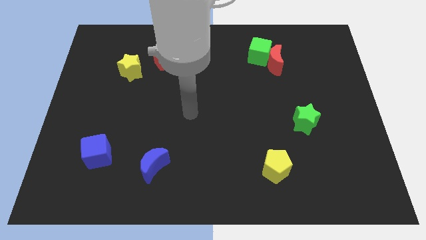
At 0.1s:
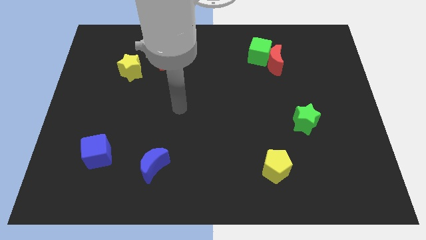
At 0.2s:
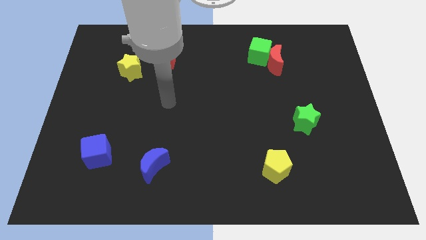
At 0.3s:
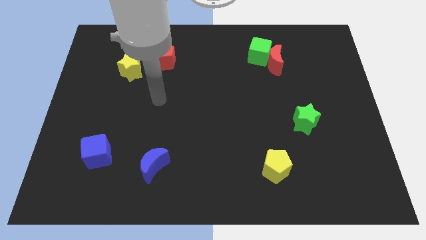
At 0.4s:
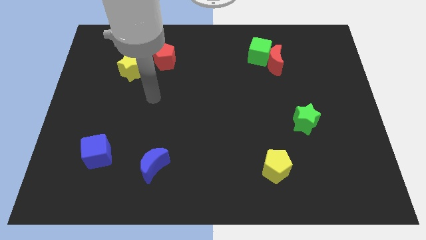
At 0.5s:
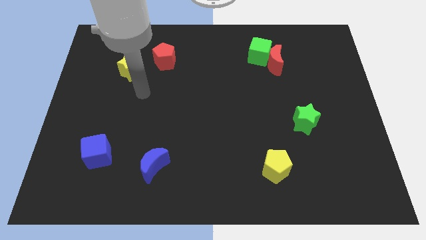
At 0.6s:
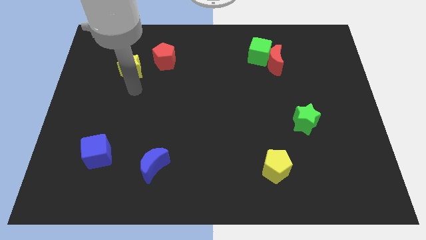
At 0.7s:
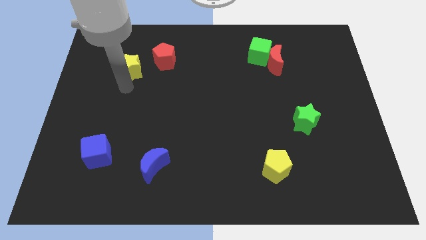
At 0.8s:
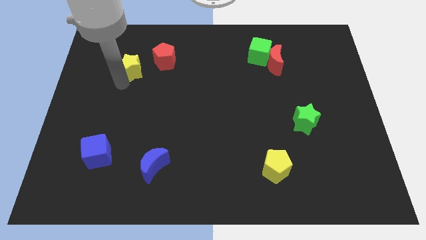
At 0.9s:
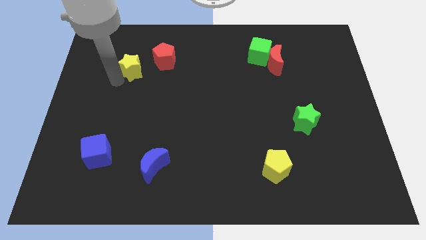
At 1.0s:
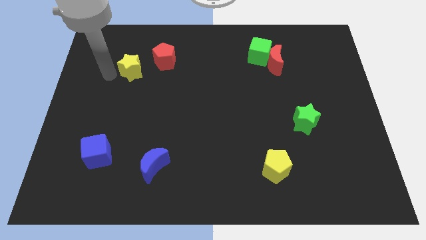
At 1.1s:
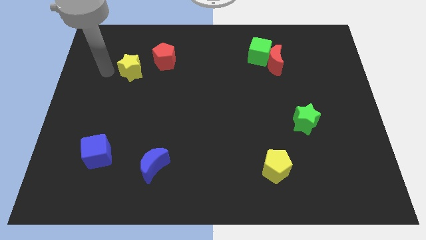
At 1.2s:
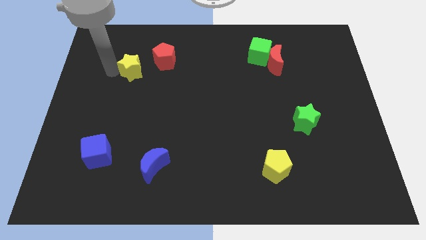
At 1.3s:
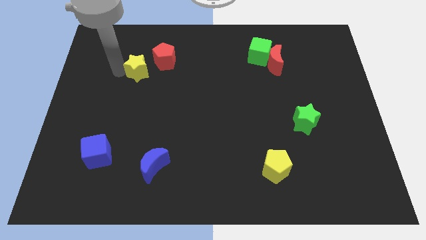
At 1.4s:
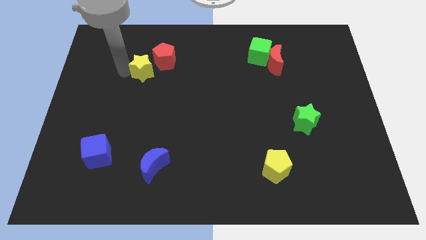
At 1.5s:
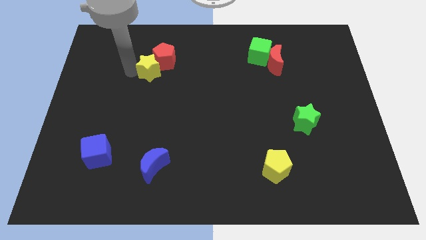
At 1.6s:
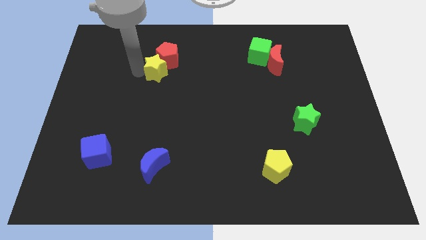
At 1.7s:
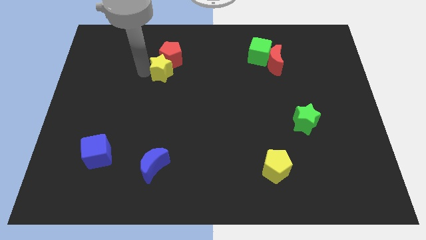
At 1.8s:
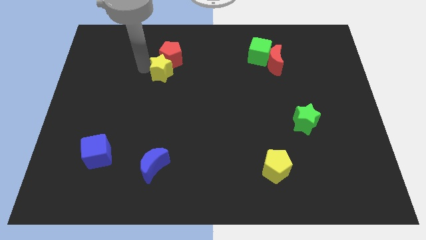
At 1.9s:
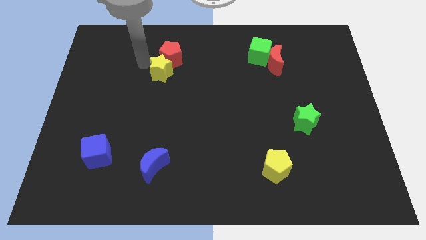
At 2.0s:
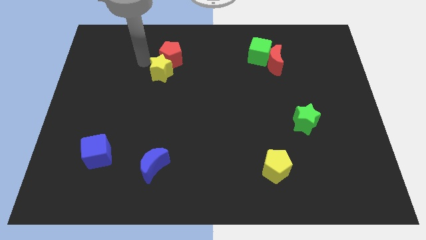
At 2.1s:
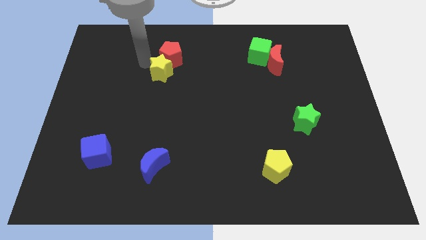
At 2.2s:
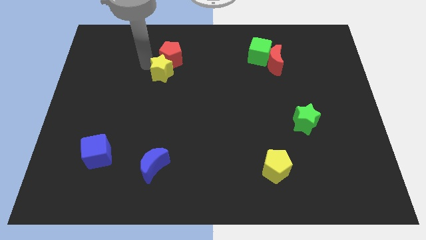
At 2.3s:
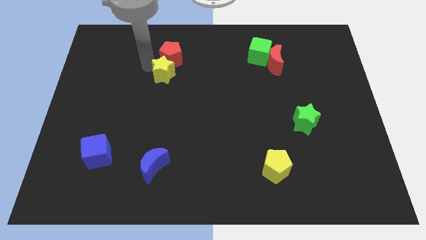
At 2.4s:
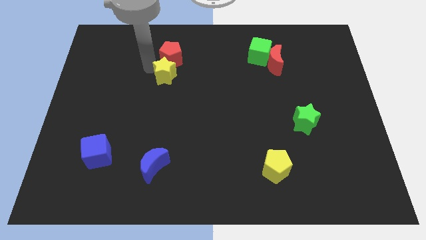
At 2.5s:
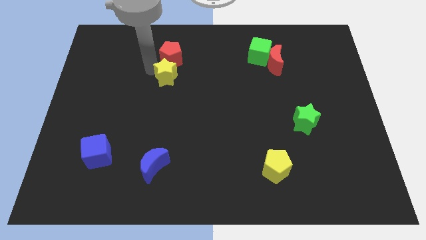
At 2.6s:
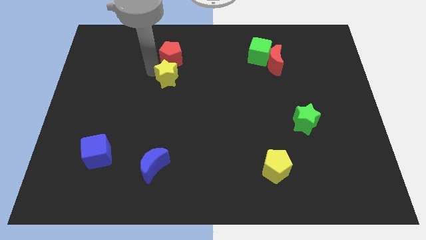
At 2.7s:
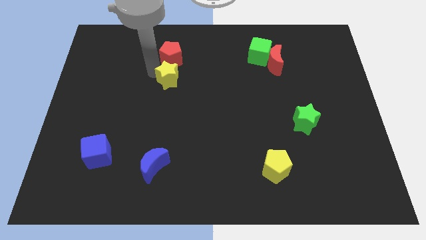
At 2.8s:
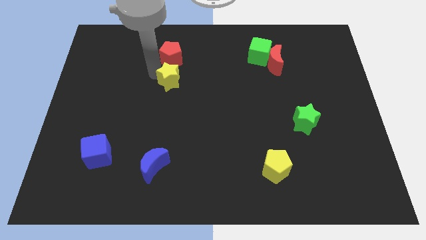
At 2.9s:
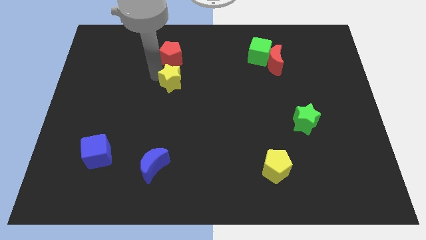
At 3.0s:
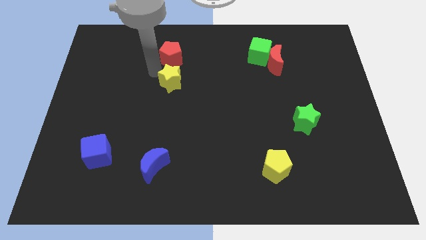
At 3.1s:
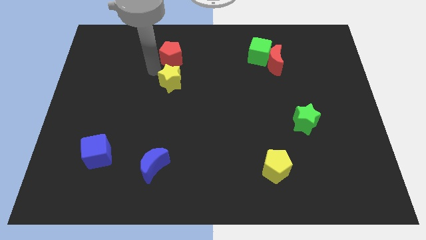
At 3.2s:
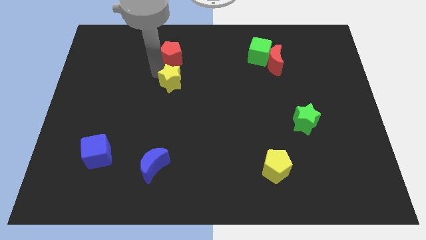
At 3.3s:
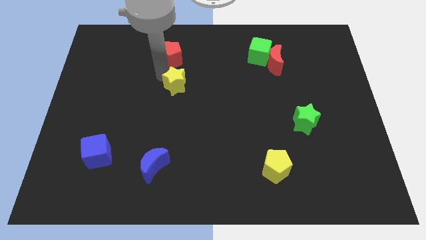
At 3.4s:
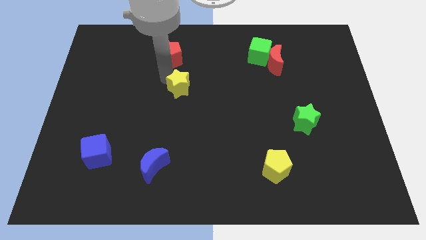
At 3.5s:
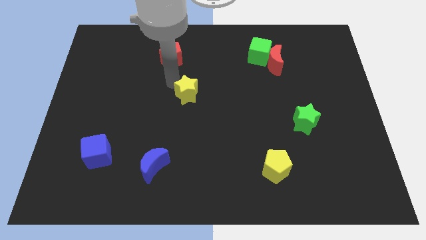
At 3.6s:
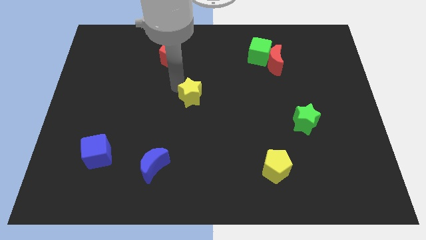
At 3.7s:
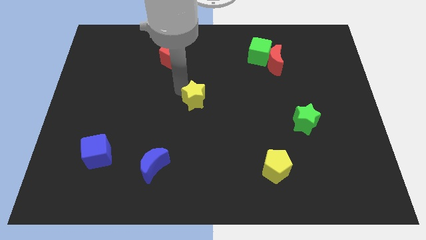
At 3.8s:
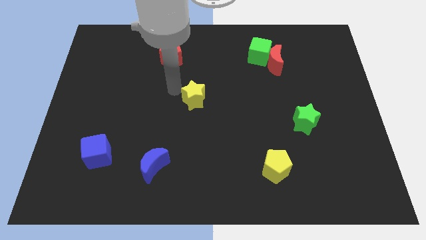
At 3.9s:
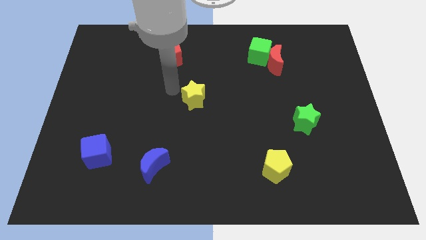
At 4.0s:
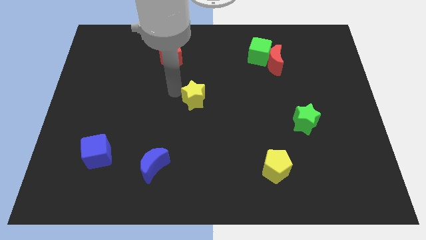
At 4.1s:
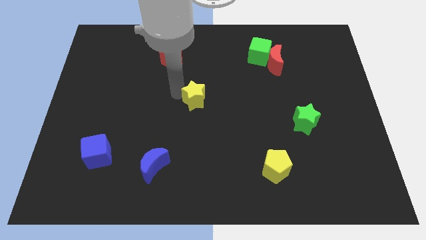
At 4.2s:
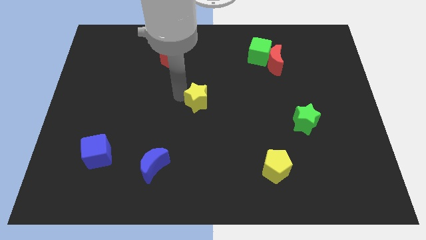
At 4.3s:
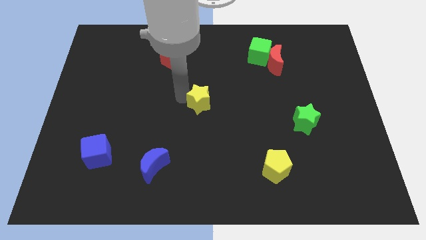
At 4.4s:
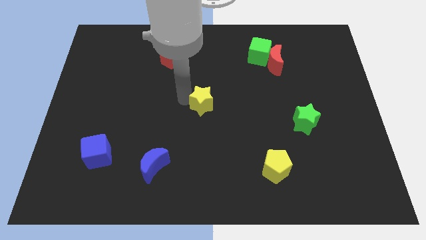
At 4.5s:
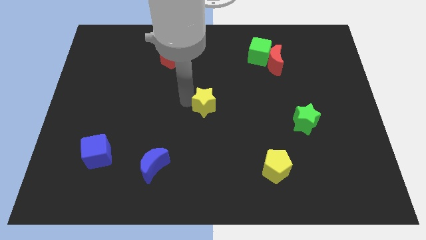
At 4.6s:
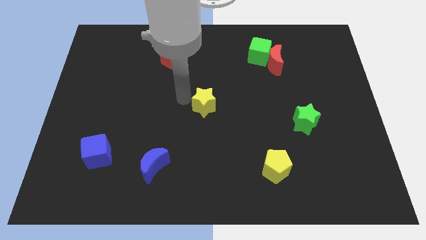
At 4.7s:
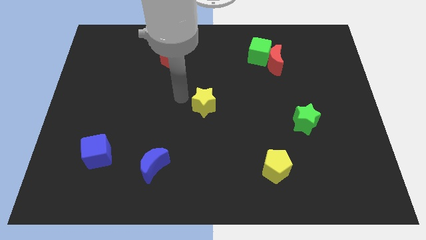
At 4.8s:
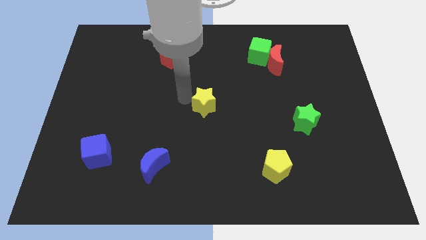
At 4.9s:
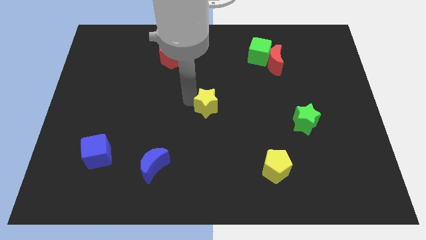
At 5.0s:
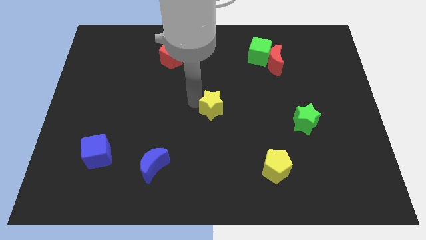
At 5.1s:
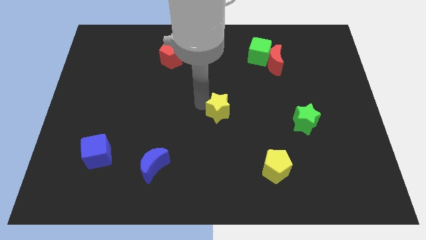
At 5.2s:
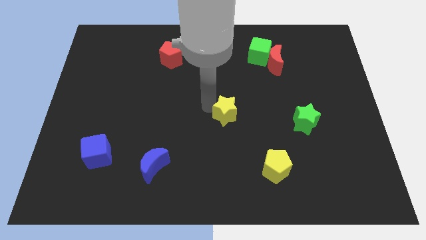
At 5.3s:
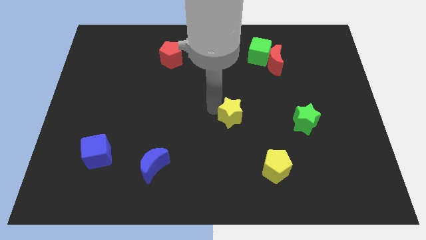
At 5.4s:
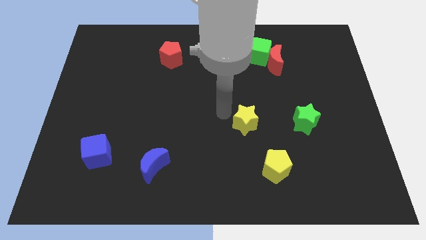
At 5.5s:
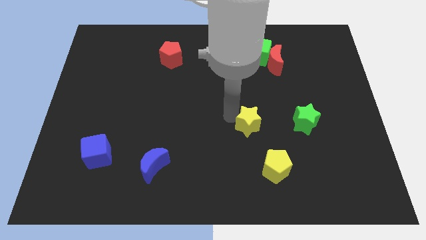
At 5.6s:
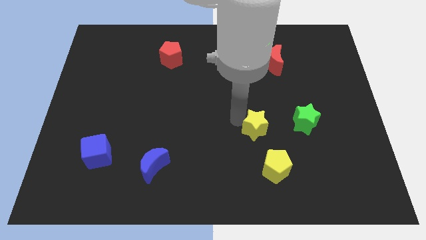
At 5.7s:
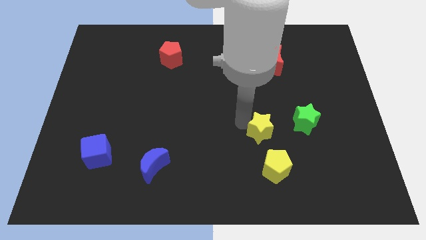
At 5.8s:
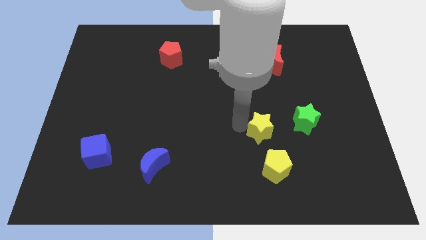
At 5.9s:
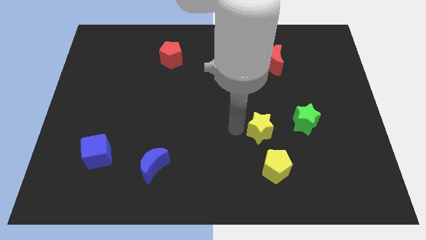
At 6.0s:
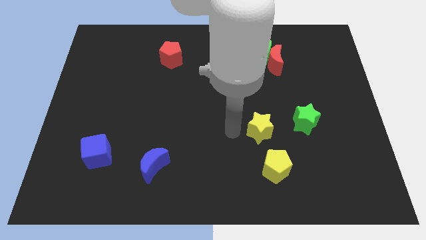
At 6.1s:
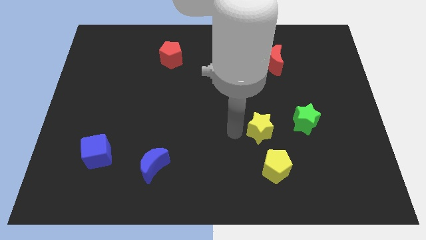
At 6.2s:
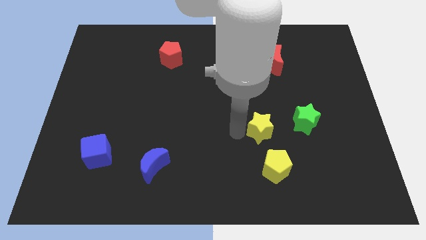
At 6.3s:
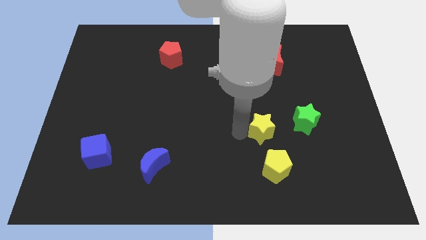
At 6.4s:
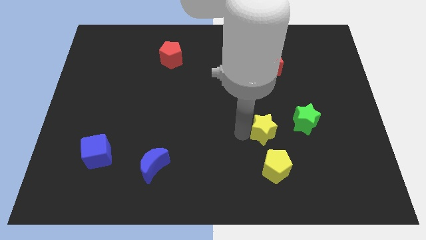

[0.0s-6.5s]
push the yellow star to the bottom left of the green star
